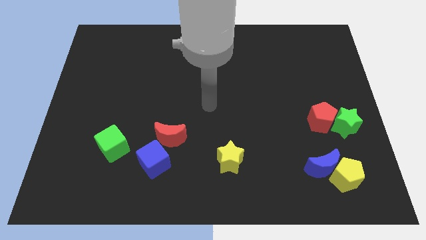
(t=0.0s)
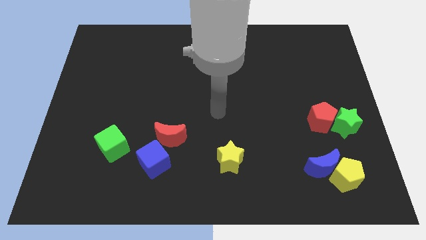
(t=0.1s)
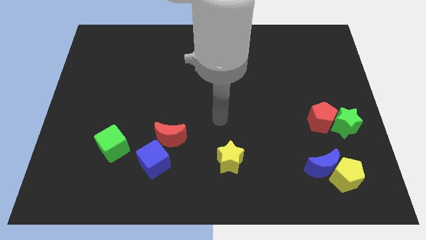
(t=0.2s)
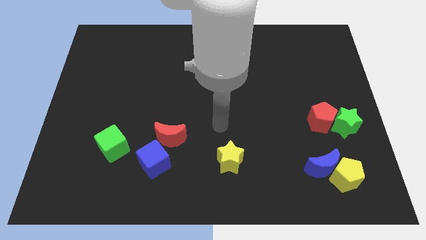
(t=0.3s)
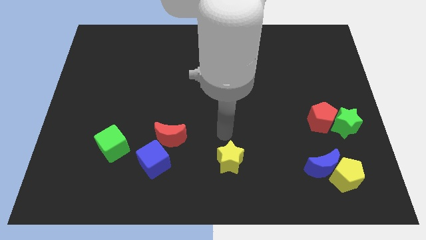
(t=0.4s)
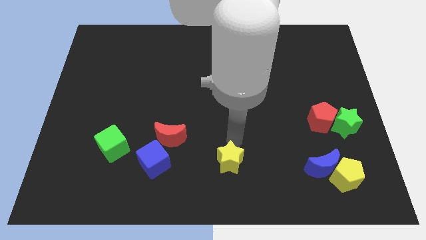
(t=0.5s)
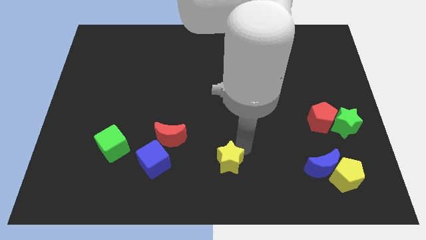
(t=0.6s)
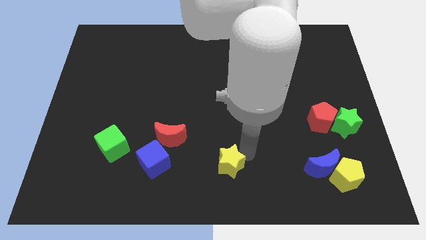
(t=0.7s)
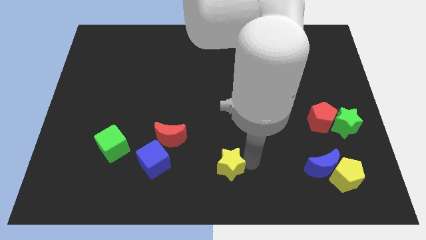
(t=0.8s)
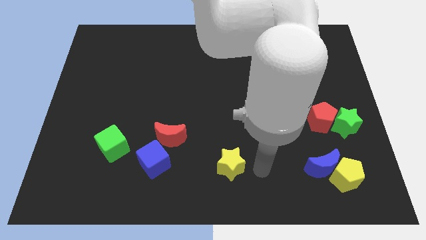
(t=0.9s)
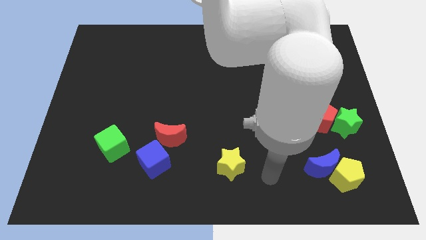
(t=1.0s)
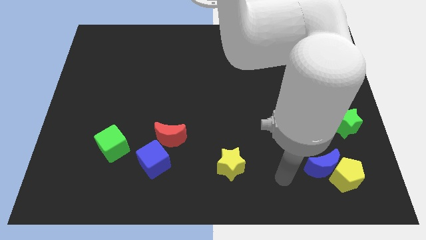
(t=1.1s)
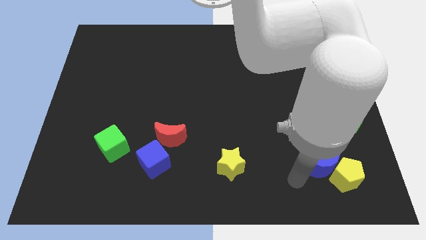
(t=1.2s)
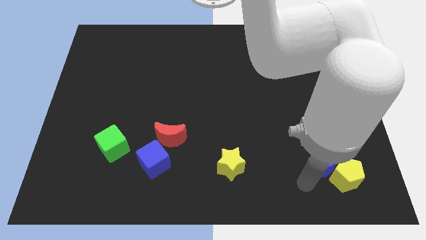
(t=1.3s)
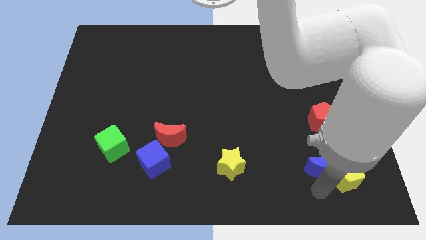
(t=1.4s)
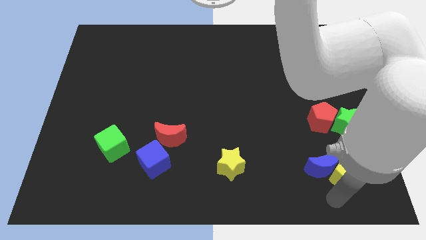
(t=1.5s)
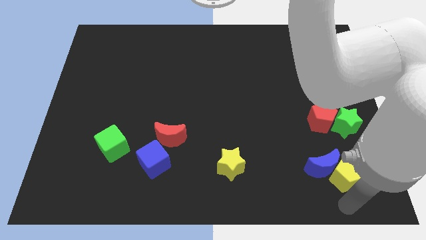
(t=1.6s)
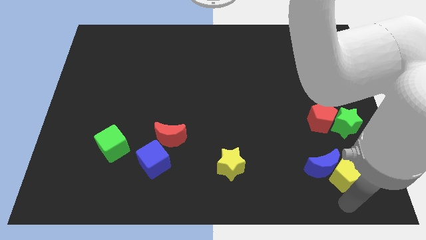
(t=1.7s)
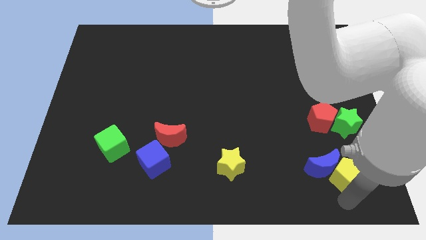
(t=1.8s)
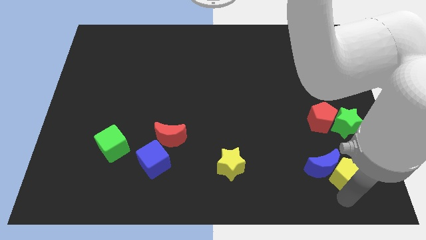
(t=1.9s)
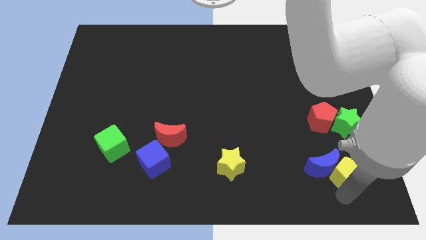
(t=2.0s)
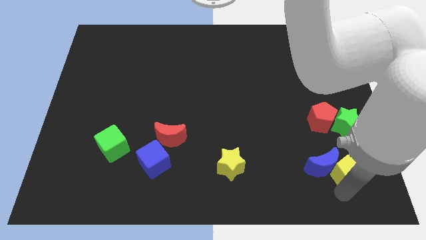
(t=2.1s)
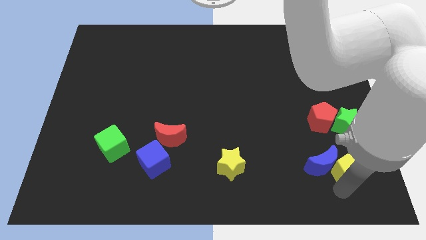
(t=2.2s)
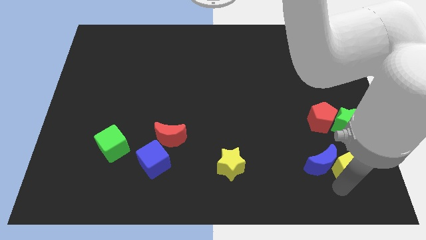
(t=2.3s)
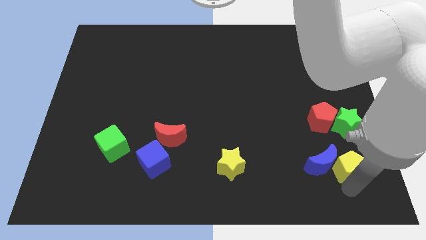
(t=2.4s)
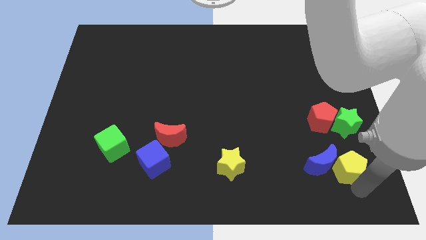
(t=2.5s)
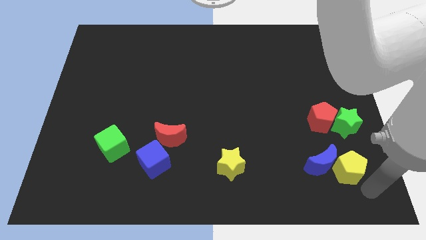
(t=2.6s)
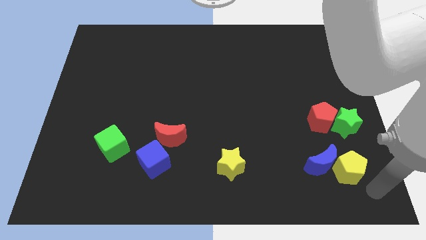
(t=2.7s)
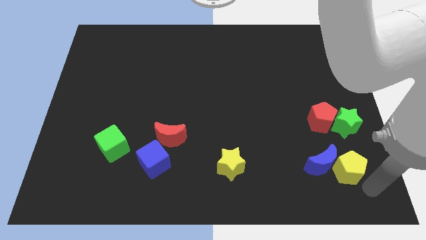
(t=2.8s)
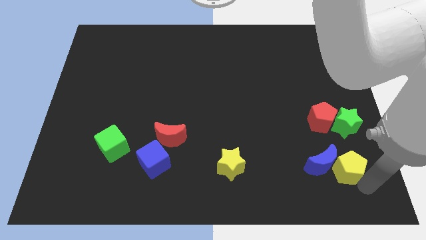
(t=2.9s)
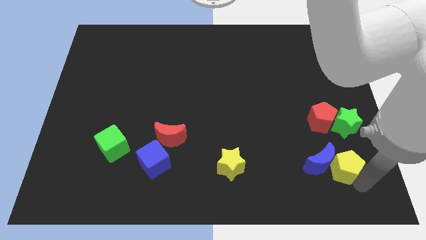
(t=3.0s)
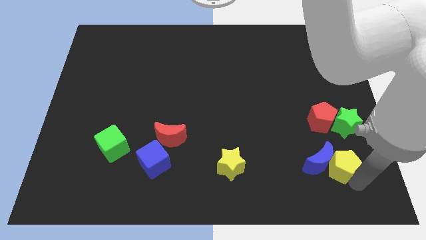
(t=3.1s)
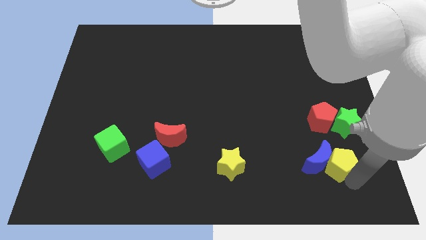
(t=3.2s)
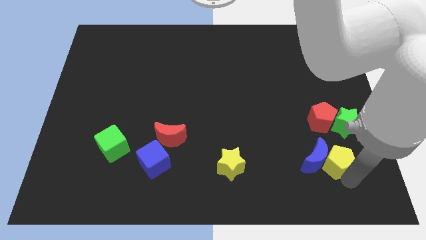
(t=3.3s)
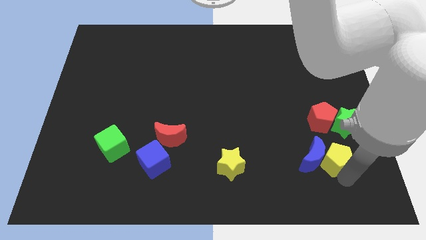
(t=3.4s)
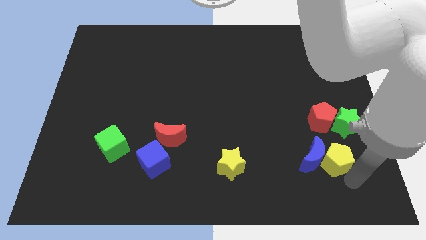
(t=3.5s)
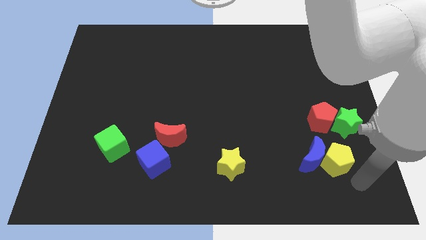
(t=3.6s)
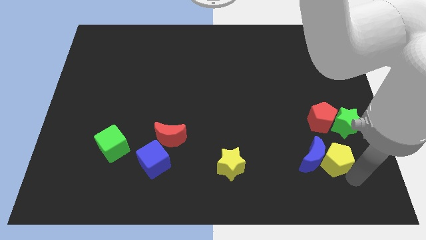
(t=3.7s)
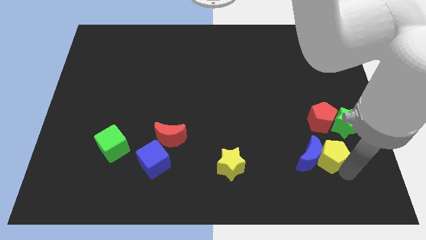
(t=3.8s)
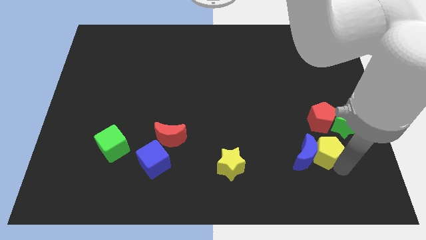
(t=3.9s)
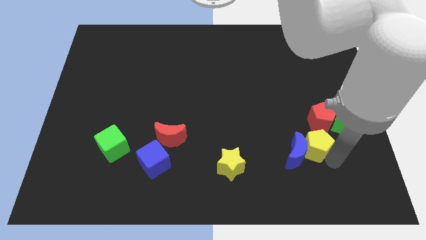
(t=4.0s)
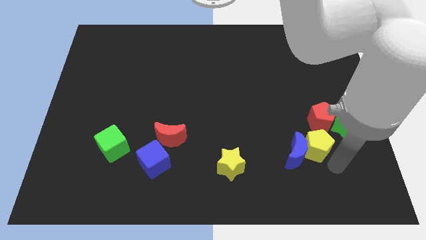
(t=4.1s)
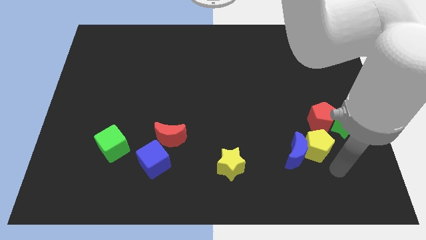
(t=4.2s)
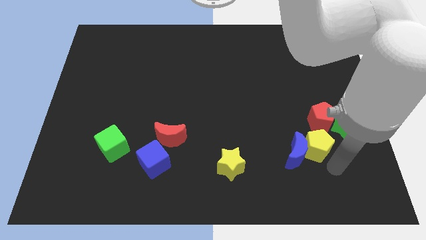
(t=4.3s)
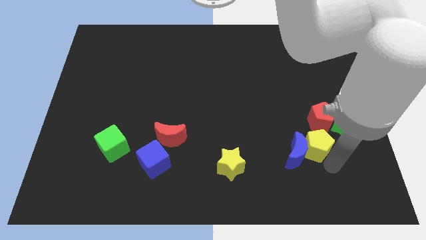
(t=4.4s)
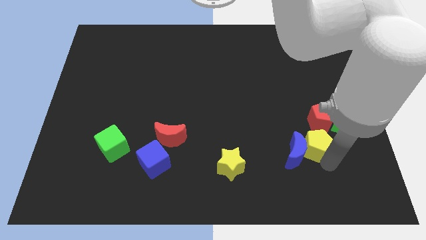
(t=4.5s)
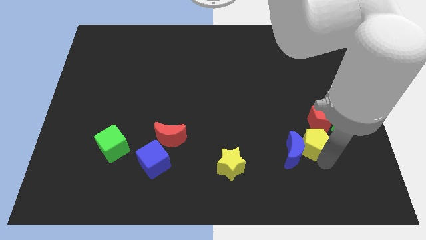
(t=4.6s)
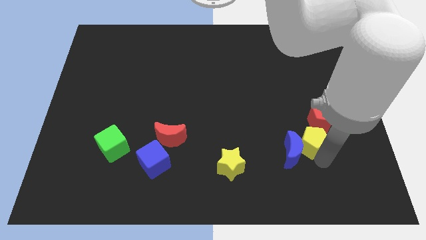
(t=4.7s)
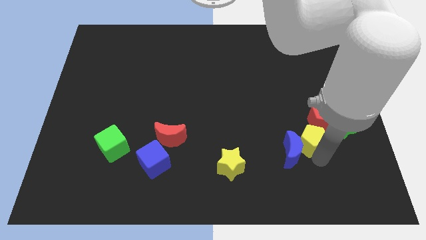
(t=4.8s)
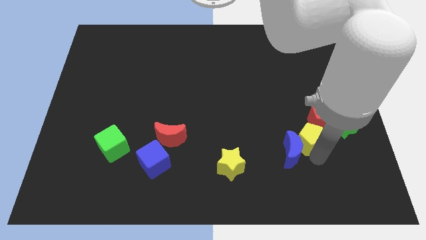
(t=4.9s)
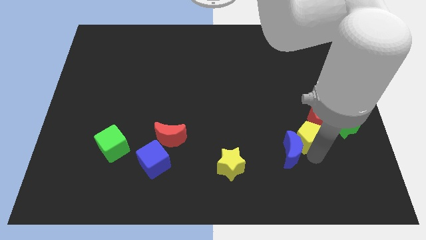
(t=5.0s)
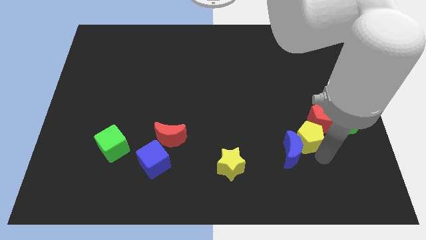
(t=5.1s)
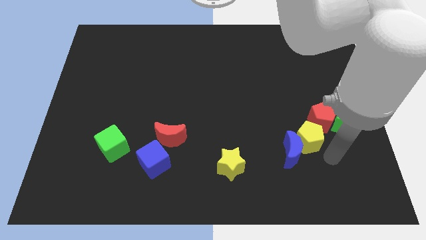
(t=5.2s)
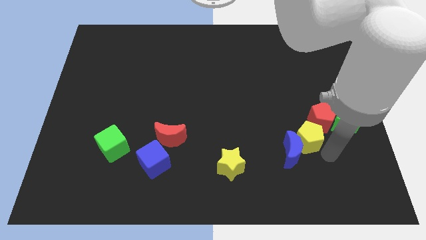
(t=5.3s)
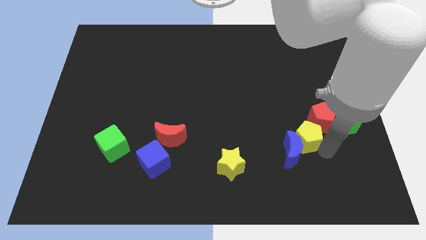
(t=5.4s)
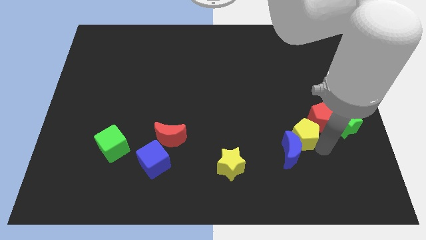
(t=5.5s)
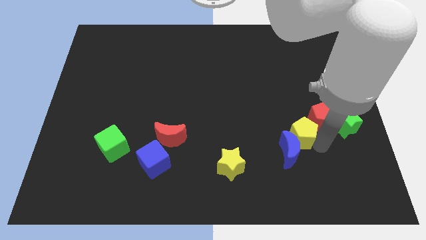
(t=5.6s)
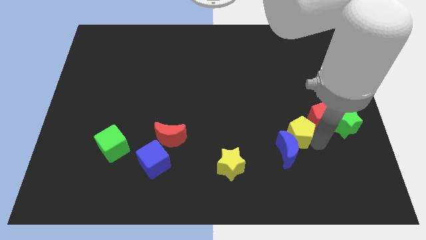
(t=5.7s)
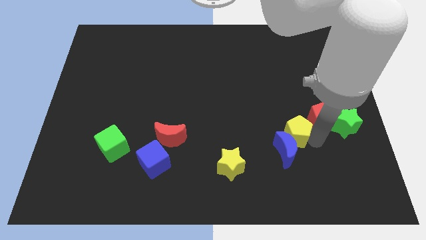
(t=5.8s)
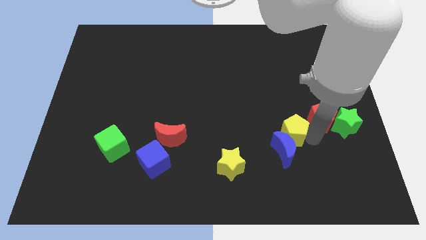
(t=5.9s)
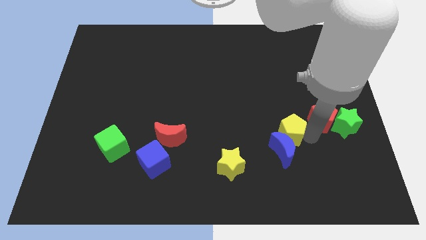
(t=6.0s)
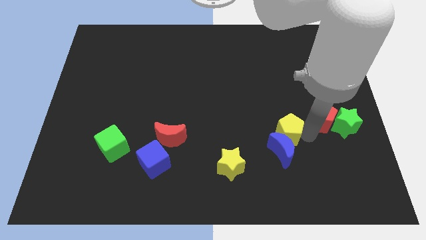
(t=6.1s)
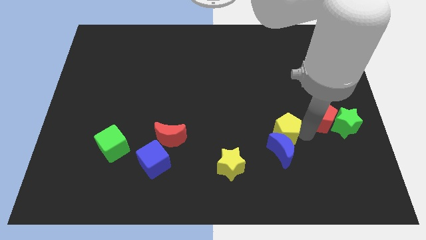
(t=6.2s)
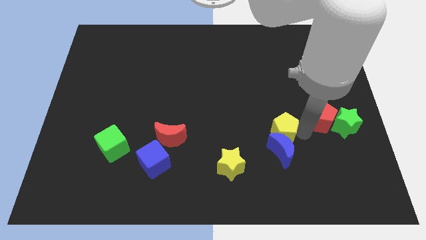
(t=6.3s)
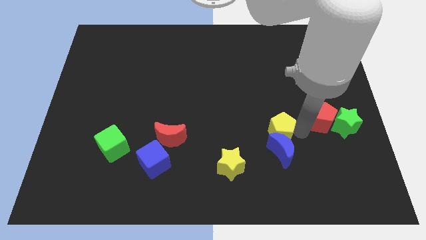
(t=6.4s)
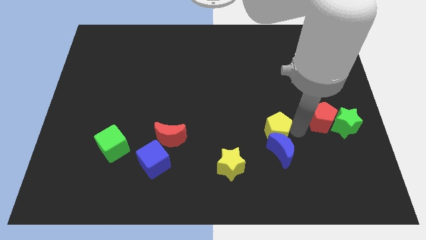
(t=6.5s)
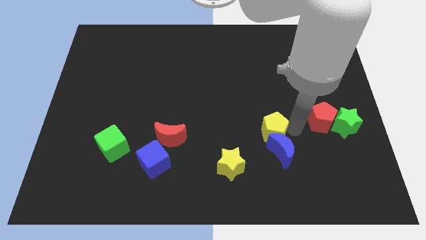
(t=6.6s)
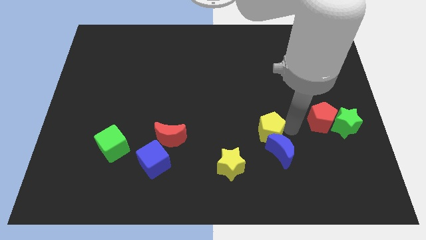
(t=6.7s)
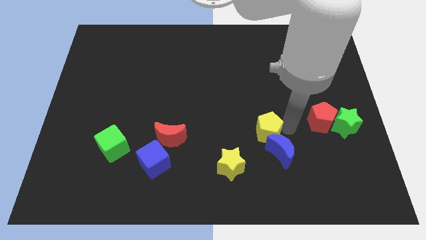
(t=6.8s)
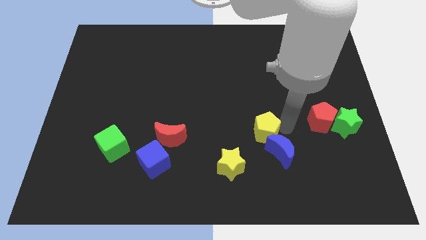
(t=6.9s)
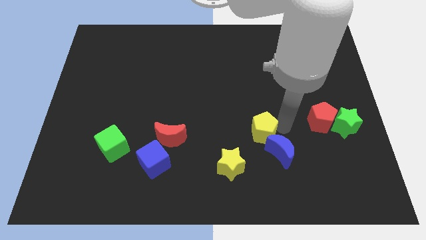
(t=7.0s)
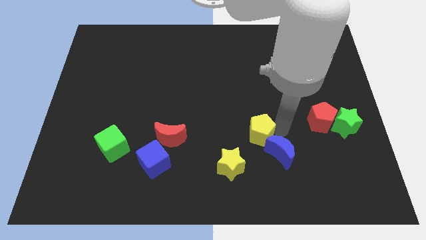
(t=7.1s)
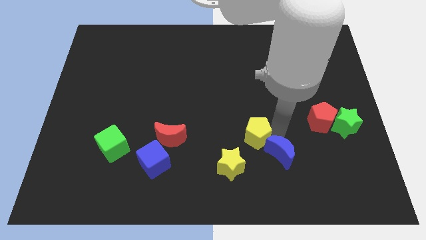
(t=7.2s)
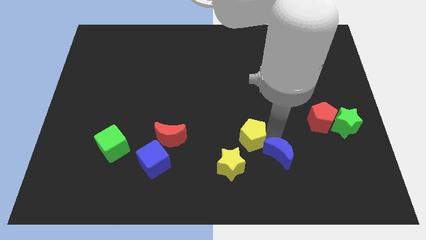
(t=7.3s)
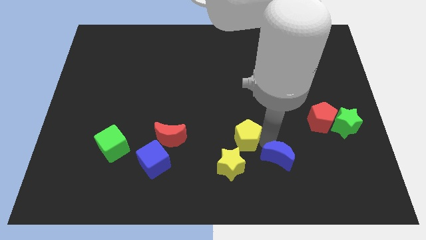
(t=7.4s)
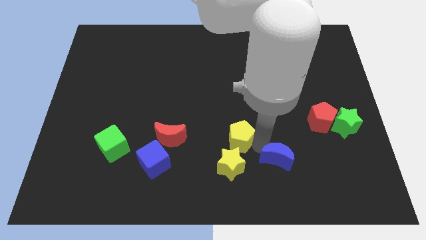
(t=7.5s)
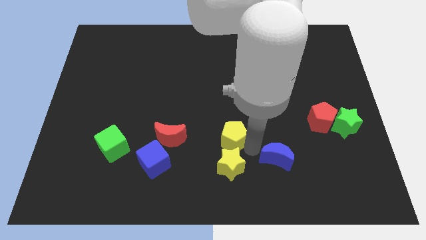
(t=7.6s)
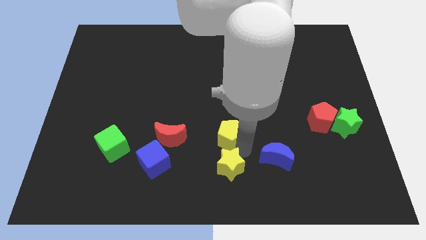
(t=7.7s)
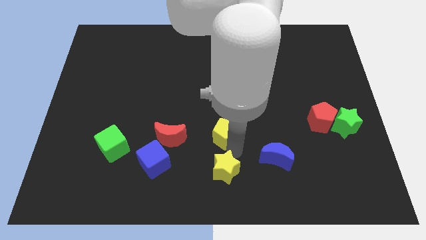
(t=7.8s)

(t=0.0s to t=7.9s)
push the yellow pentagon up and to the left

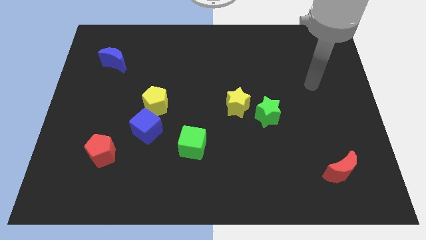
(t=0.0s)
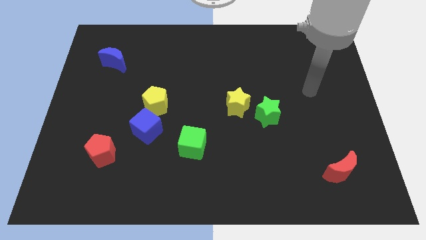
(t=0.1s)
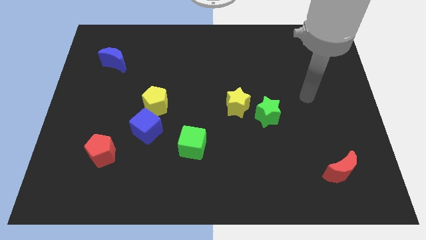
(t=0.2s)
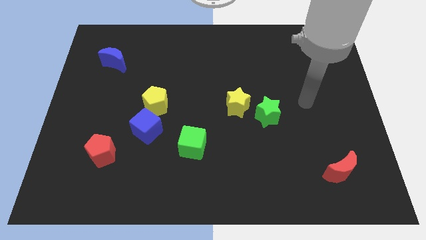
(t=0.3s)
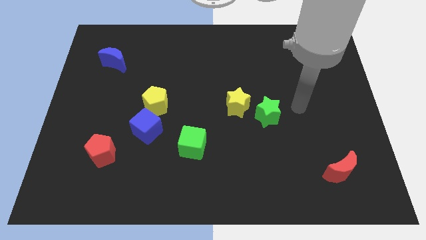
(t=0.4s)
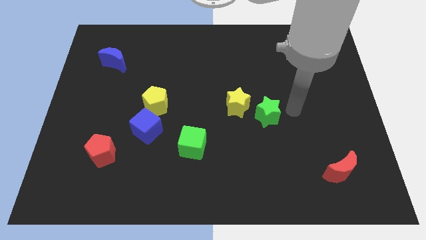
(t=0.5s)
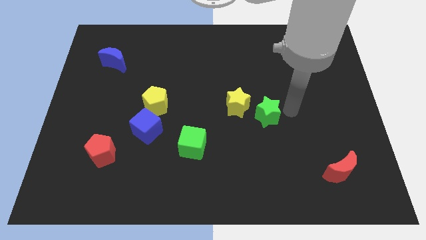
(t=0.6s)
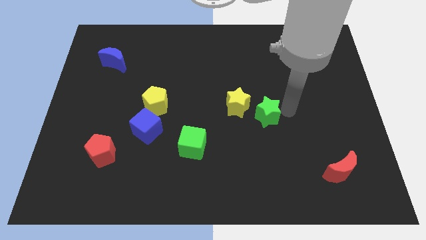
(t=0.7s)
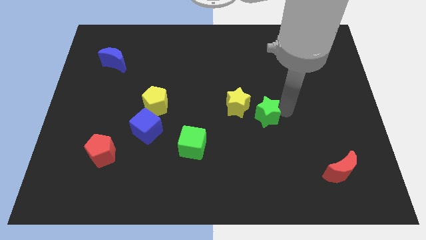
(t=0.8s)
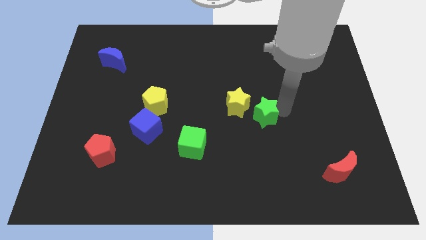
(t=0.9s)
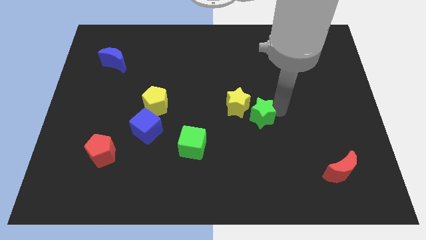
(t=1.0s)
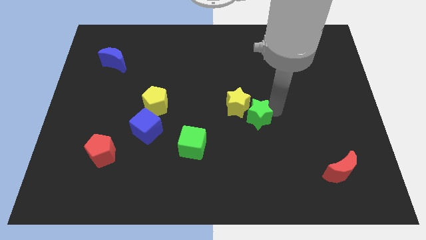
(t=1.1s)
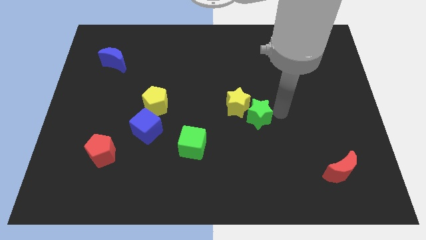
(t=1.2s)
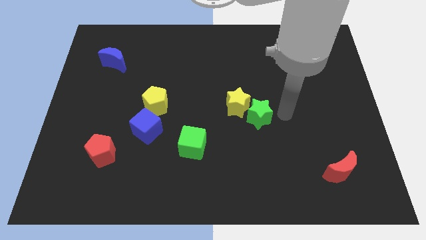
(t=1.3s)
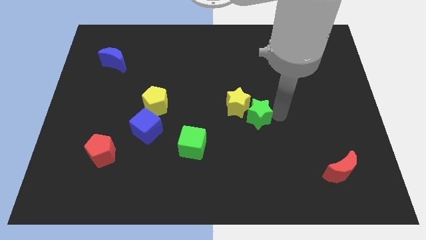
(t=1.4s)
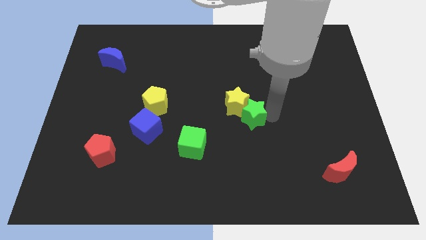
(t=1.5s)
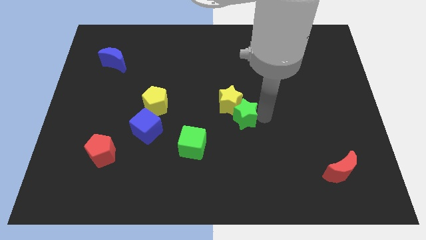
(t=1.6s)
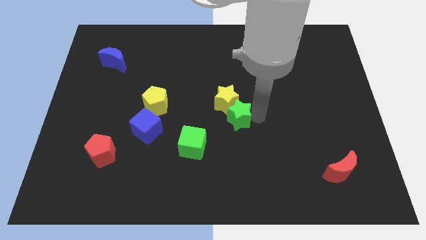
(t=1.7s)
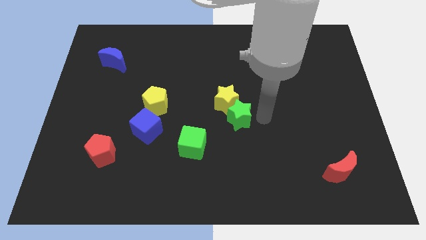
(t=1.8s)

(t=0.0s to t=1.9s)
slightly push the green star left
